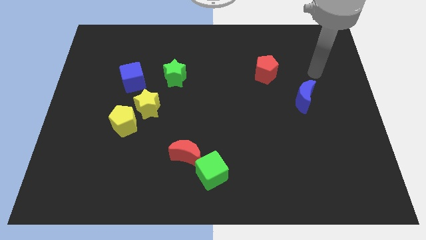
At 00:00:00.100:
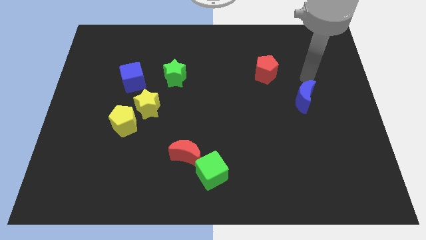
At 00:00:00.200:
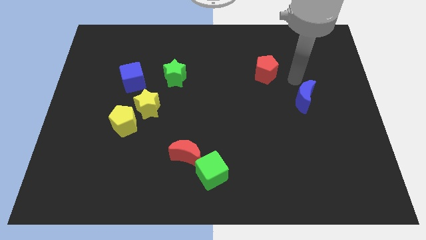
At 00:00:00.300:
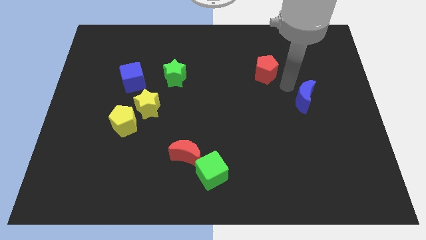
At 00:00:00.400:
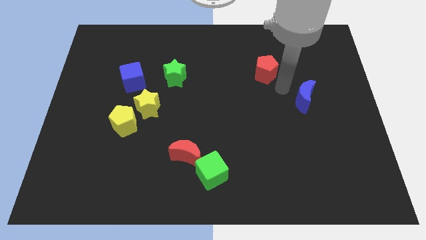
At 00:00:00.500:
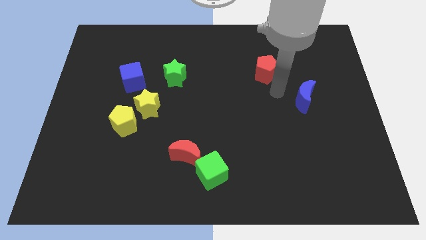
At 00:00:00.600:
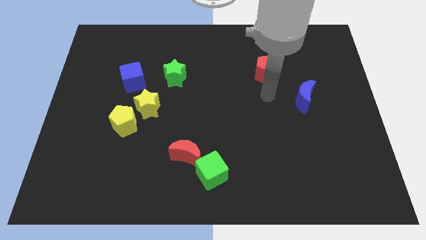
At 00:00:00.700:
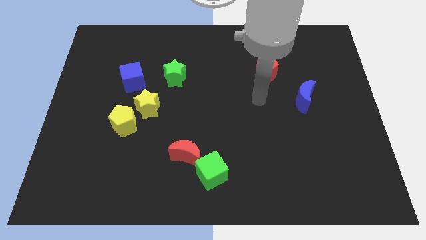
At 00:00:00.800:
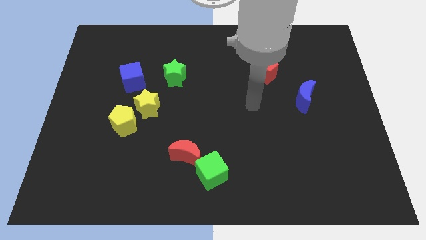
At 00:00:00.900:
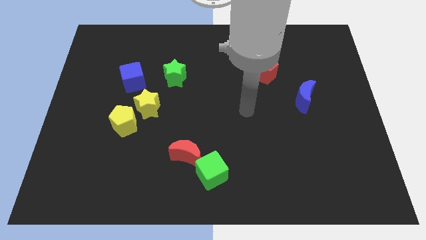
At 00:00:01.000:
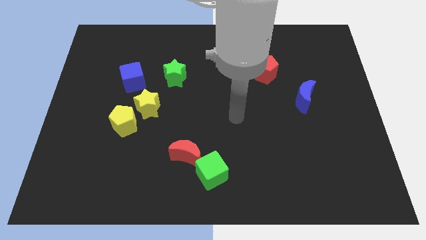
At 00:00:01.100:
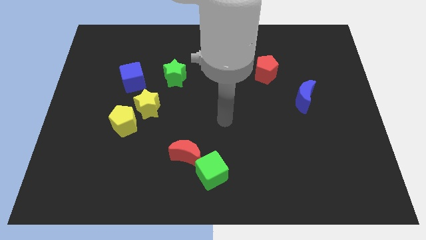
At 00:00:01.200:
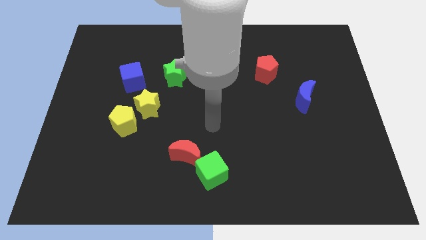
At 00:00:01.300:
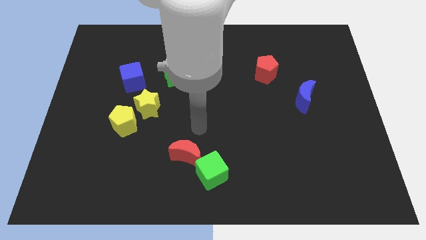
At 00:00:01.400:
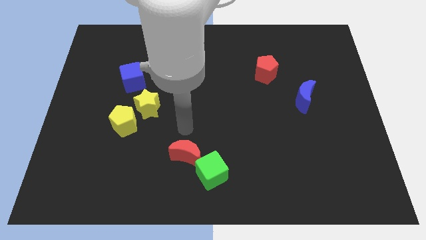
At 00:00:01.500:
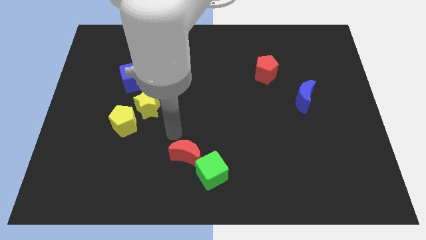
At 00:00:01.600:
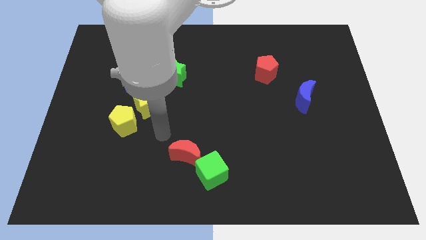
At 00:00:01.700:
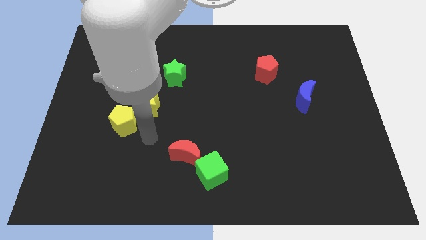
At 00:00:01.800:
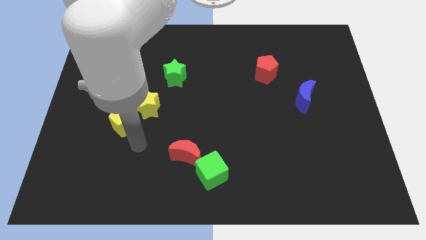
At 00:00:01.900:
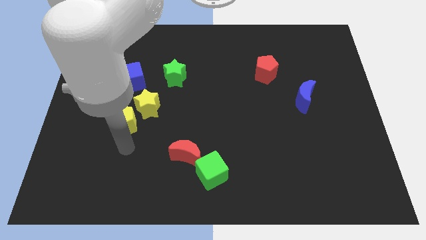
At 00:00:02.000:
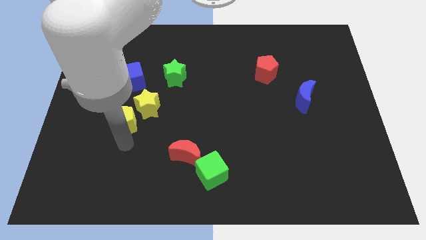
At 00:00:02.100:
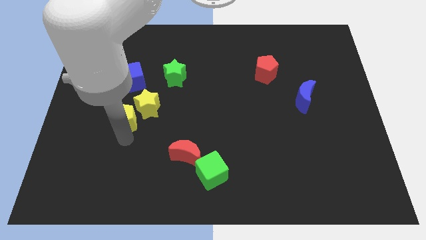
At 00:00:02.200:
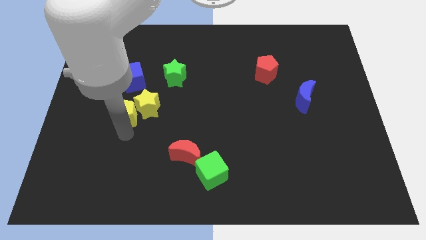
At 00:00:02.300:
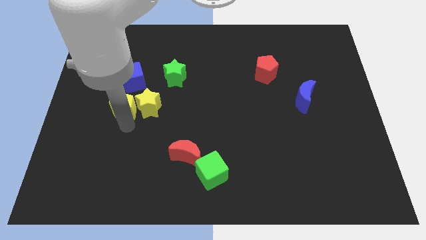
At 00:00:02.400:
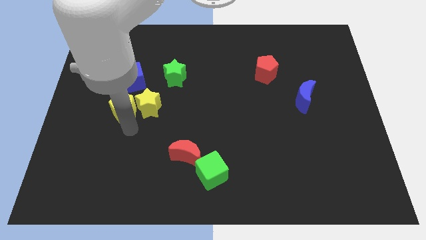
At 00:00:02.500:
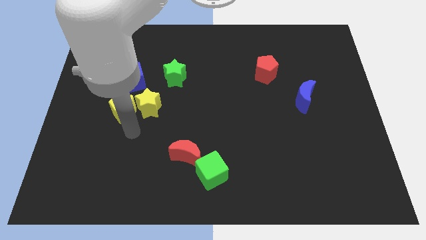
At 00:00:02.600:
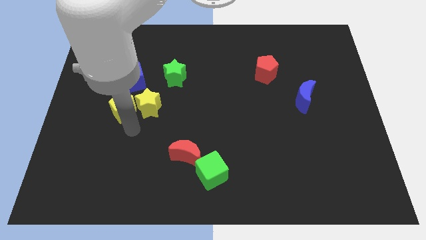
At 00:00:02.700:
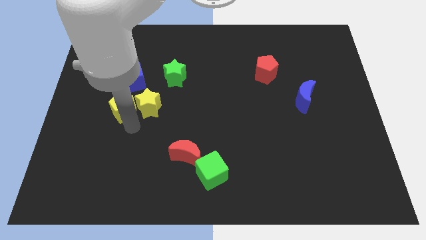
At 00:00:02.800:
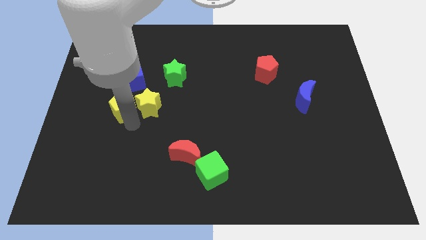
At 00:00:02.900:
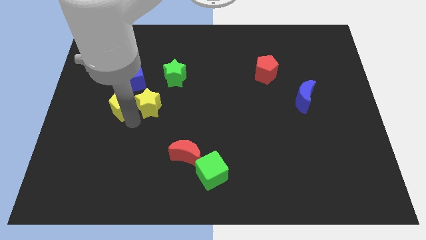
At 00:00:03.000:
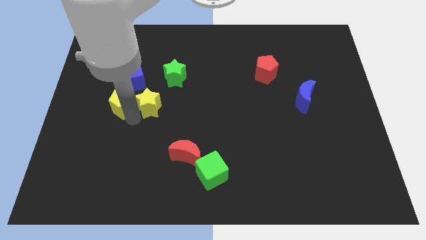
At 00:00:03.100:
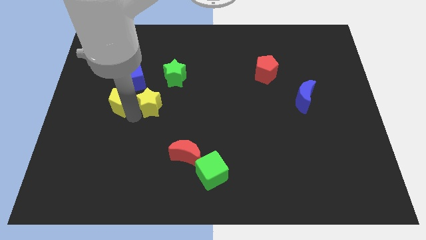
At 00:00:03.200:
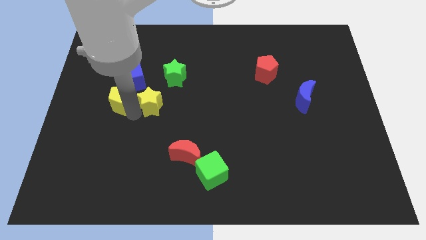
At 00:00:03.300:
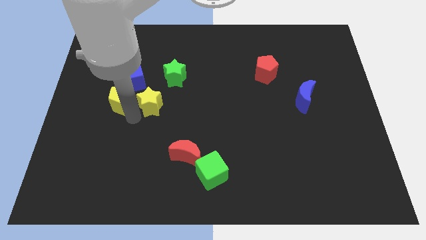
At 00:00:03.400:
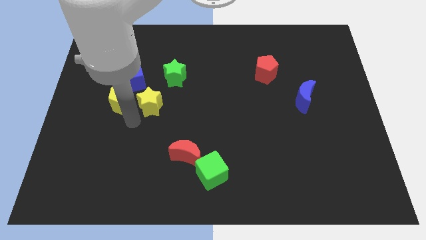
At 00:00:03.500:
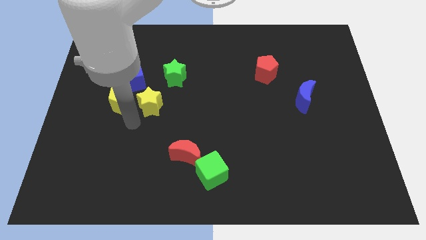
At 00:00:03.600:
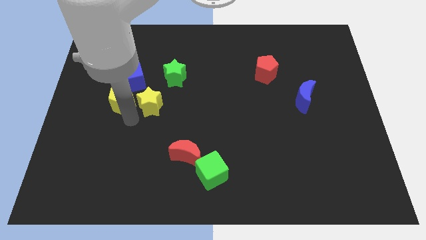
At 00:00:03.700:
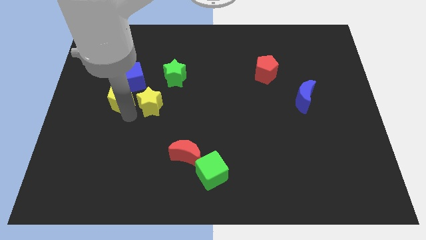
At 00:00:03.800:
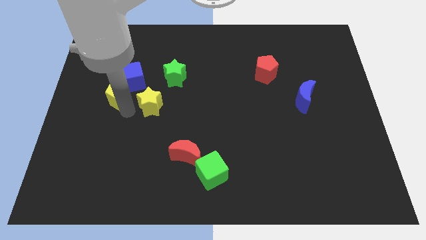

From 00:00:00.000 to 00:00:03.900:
slightly move the yellow pentagon up

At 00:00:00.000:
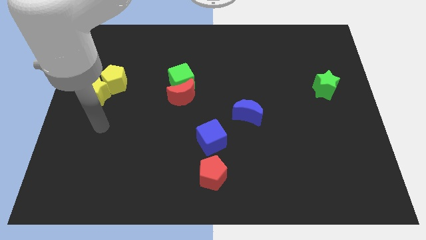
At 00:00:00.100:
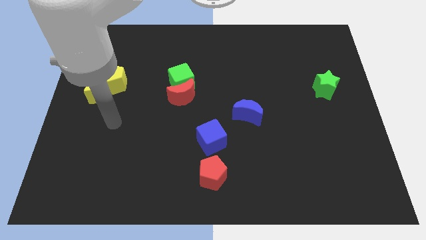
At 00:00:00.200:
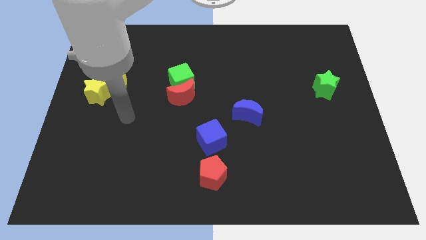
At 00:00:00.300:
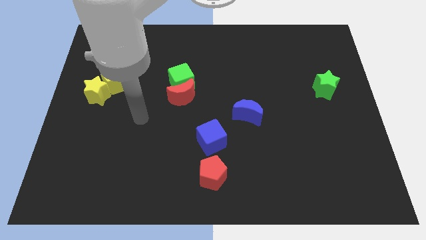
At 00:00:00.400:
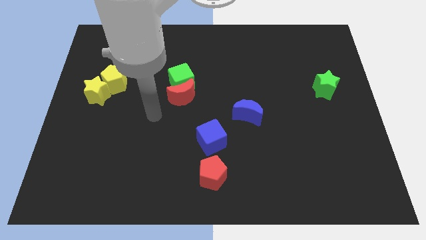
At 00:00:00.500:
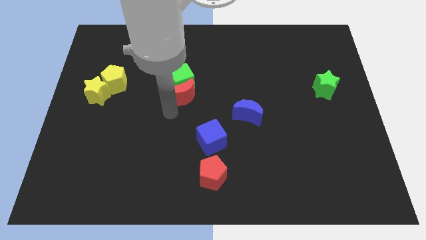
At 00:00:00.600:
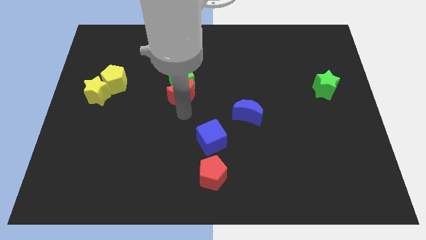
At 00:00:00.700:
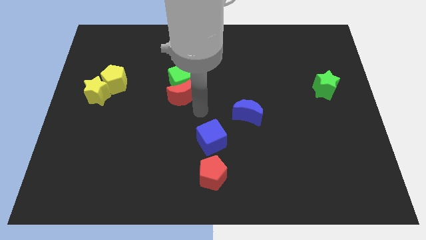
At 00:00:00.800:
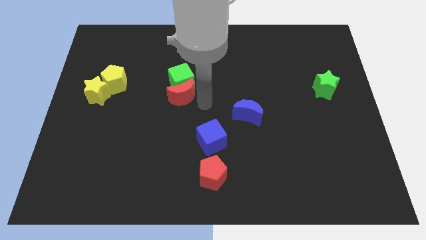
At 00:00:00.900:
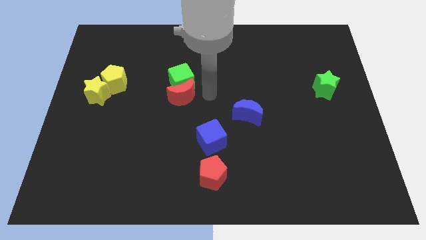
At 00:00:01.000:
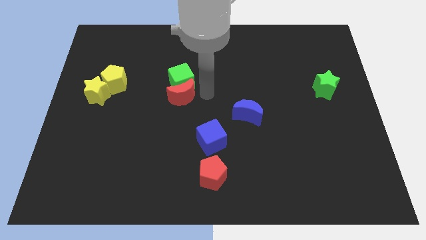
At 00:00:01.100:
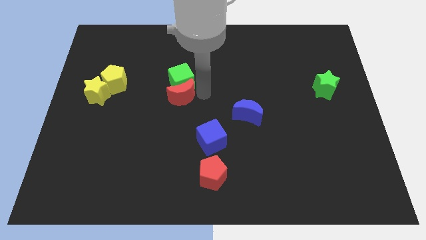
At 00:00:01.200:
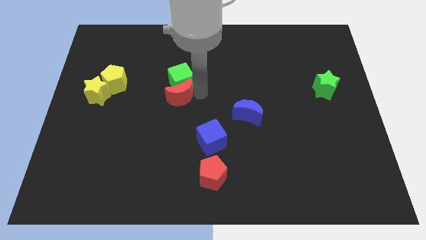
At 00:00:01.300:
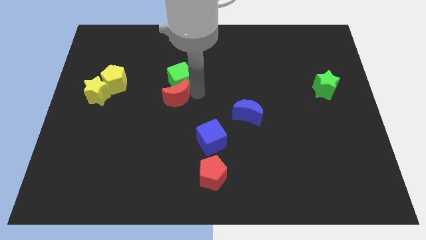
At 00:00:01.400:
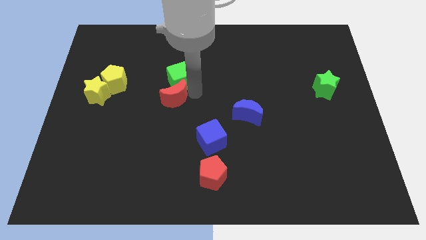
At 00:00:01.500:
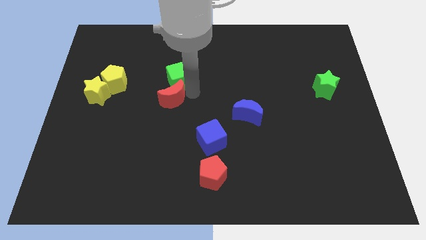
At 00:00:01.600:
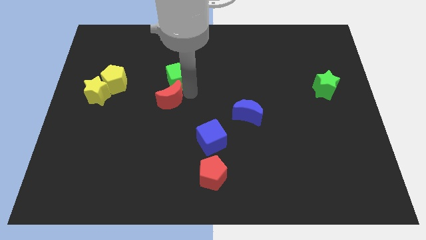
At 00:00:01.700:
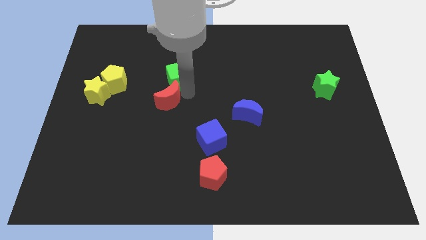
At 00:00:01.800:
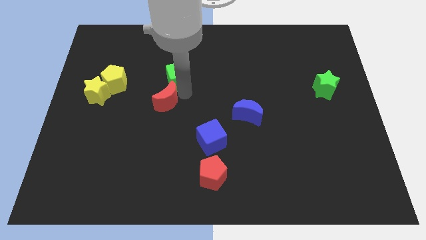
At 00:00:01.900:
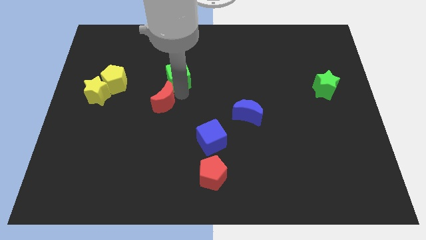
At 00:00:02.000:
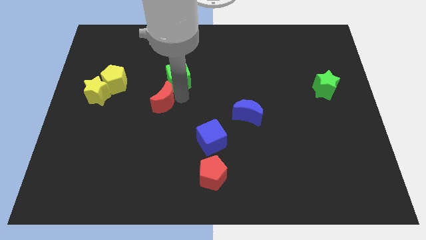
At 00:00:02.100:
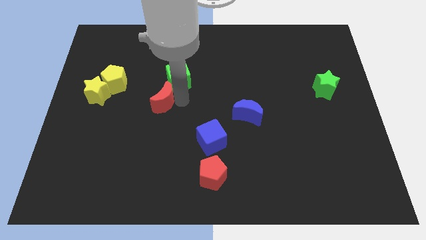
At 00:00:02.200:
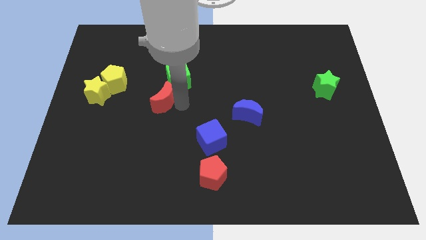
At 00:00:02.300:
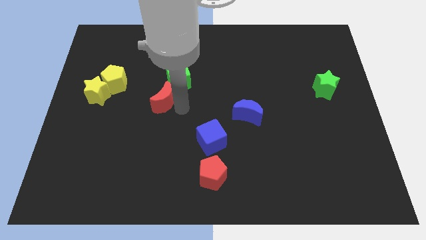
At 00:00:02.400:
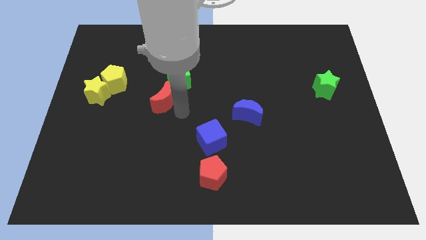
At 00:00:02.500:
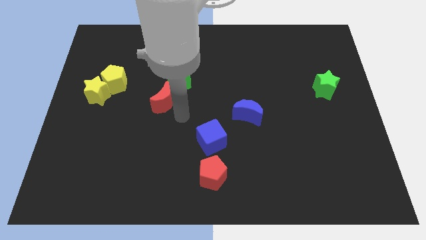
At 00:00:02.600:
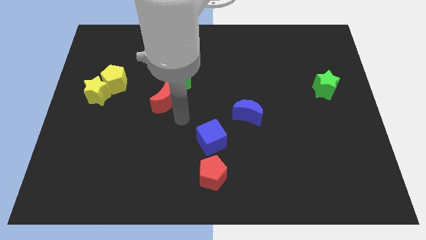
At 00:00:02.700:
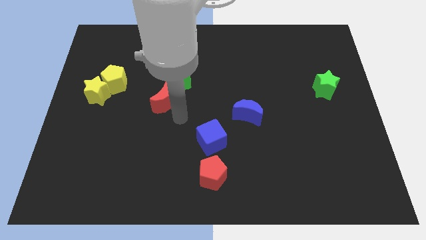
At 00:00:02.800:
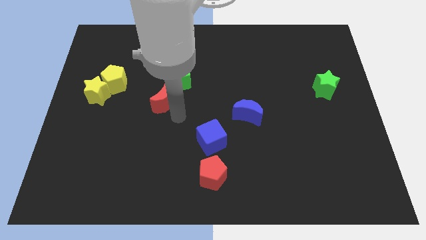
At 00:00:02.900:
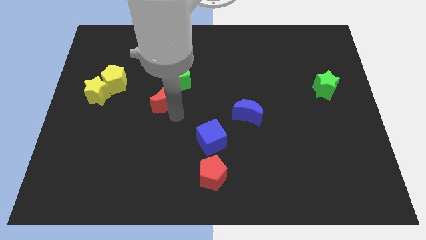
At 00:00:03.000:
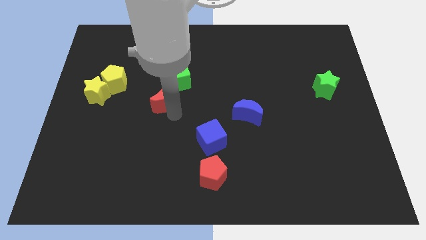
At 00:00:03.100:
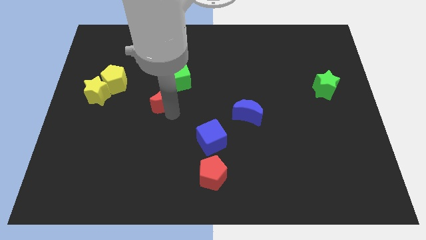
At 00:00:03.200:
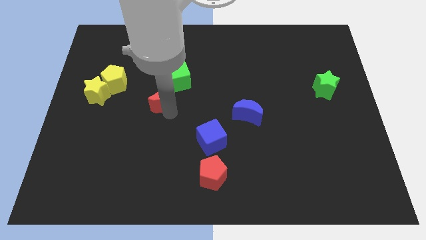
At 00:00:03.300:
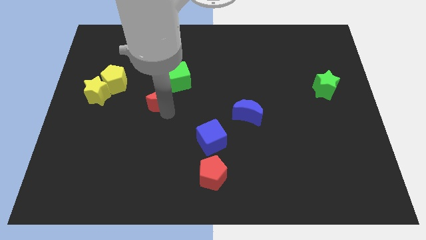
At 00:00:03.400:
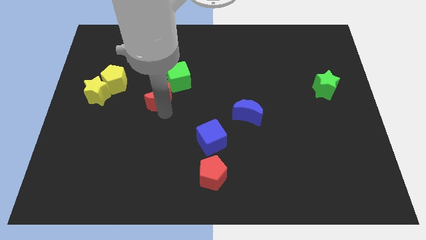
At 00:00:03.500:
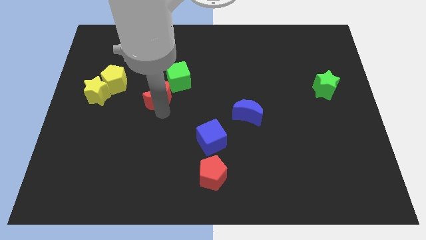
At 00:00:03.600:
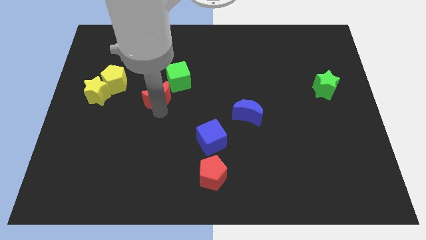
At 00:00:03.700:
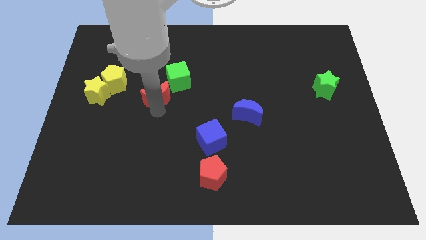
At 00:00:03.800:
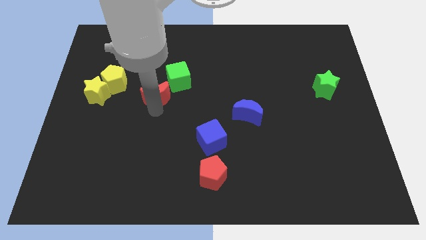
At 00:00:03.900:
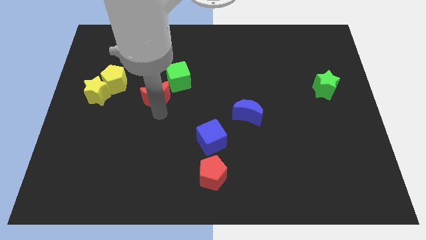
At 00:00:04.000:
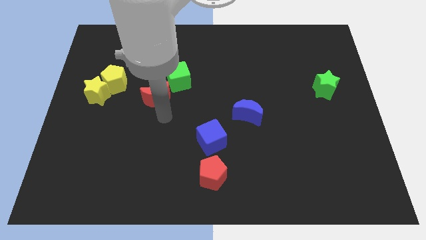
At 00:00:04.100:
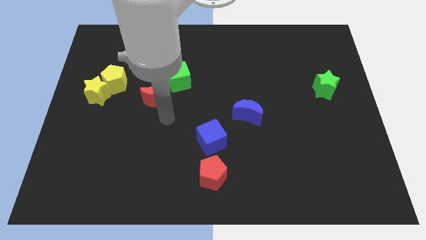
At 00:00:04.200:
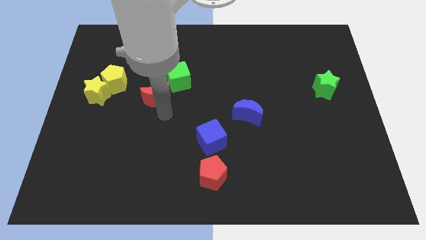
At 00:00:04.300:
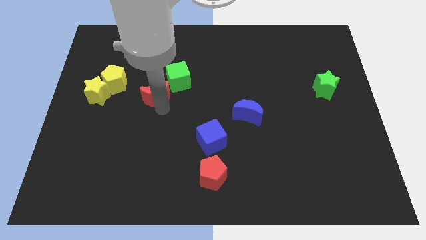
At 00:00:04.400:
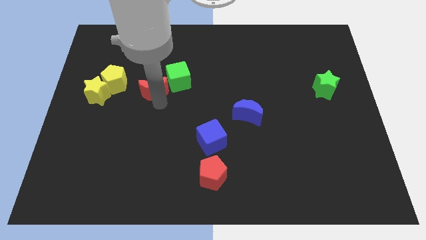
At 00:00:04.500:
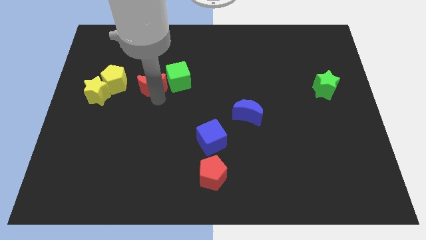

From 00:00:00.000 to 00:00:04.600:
slide the red moon diagonally upwards and to the left slightly
